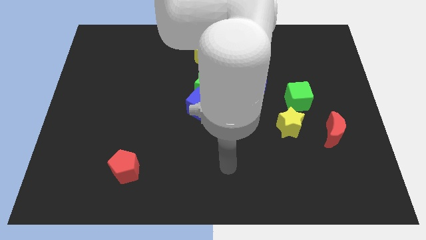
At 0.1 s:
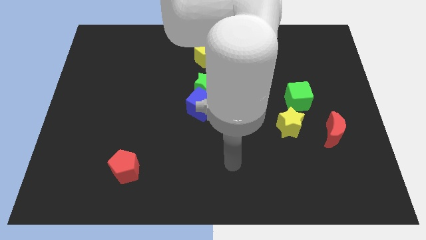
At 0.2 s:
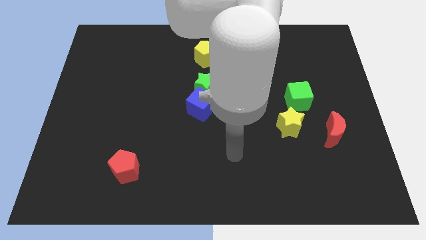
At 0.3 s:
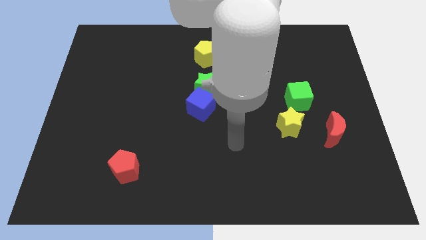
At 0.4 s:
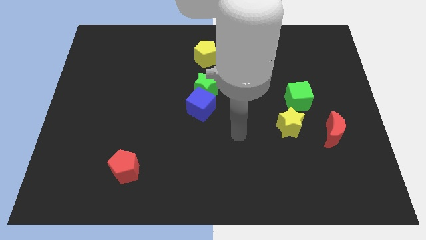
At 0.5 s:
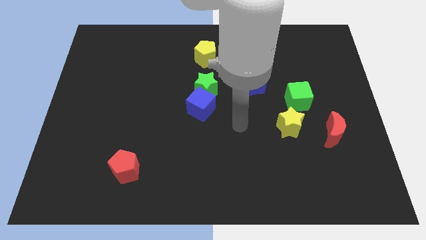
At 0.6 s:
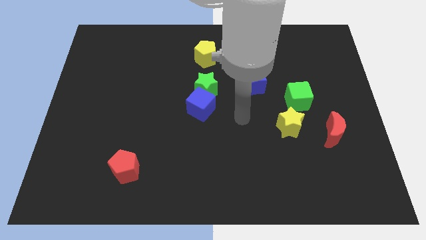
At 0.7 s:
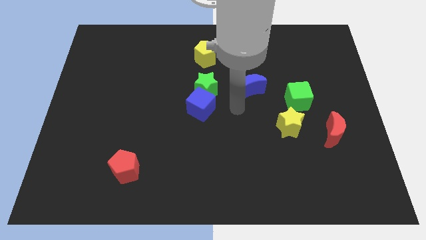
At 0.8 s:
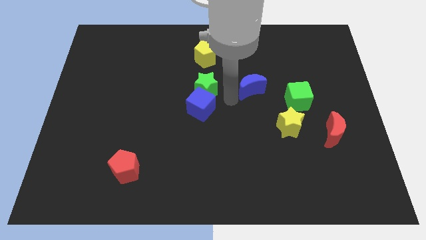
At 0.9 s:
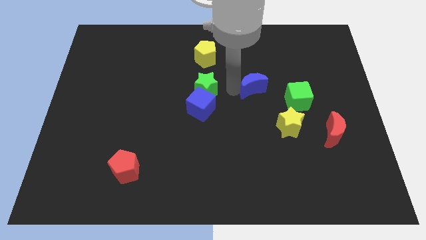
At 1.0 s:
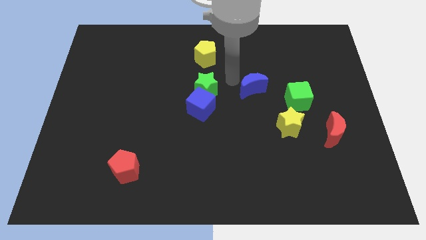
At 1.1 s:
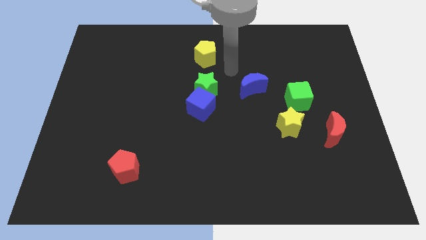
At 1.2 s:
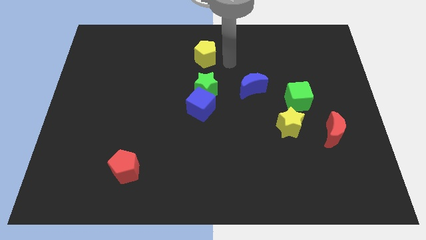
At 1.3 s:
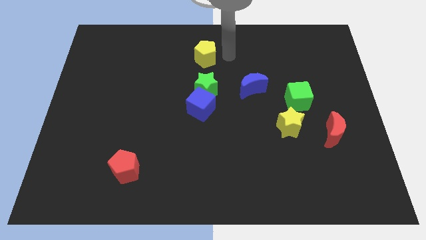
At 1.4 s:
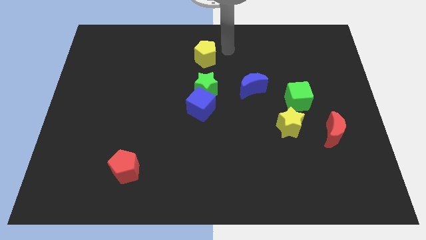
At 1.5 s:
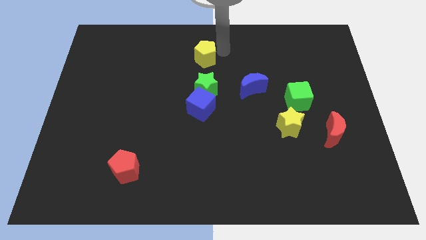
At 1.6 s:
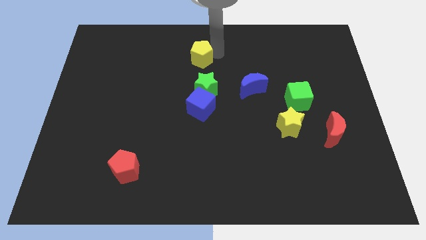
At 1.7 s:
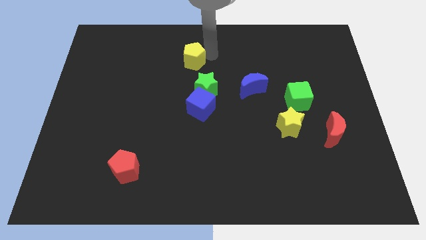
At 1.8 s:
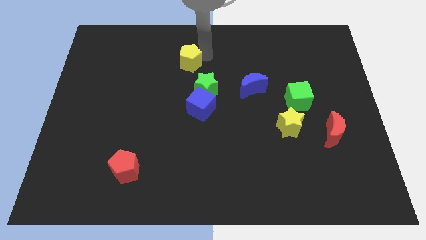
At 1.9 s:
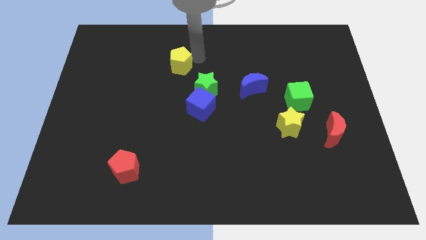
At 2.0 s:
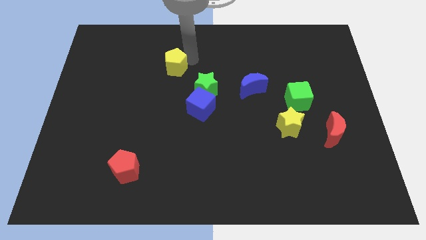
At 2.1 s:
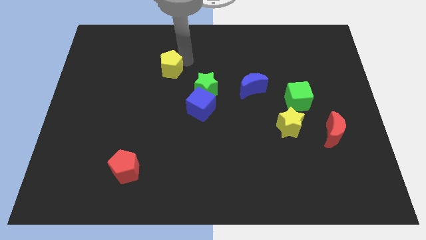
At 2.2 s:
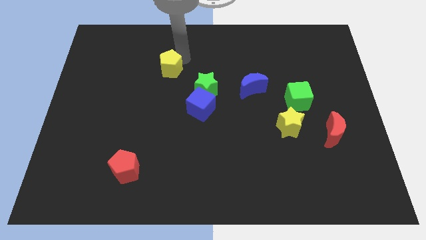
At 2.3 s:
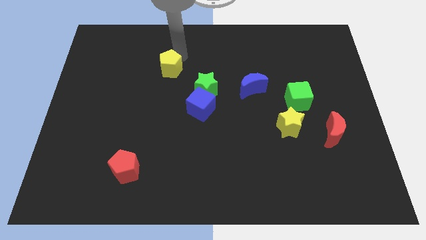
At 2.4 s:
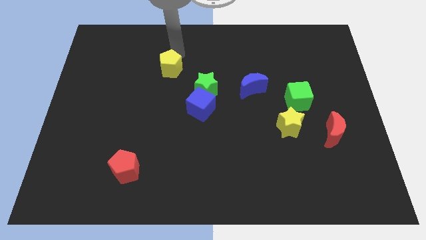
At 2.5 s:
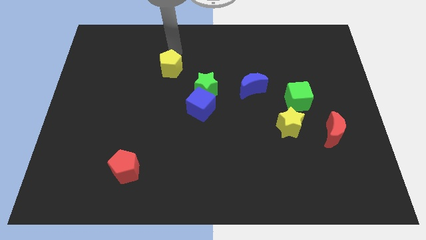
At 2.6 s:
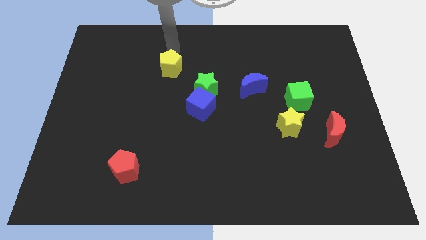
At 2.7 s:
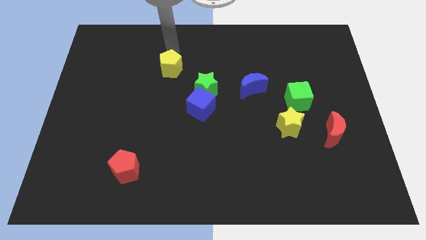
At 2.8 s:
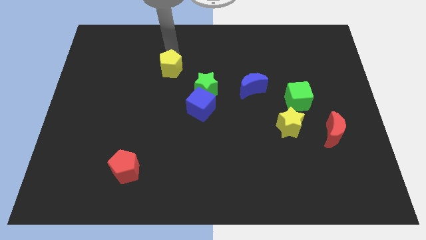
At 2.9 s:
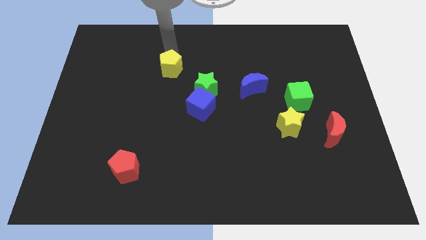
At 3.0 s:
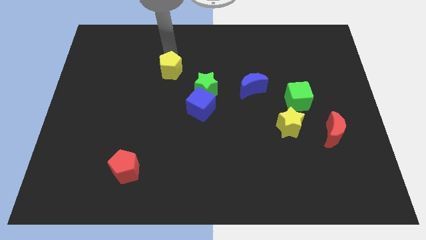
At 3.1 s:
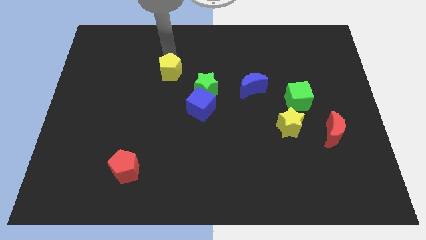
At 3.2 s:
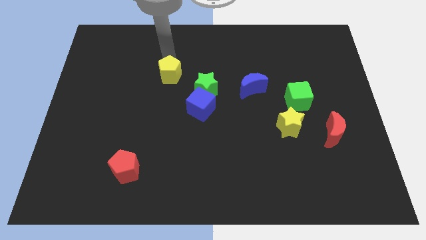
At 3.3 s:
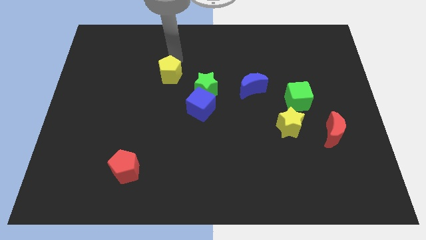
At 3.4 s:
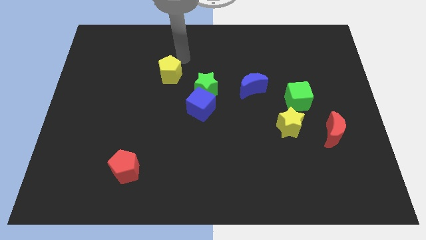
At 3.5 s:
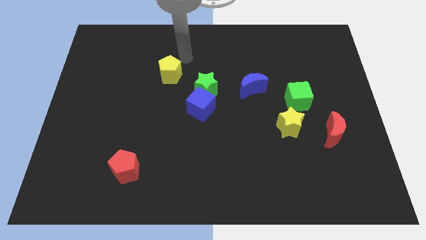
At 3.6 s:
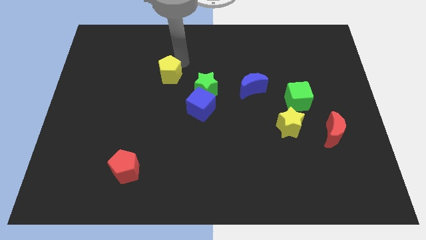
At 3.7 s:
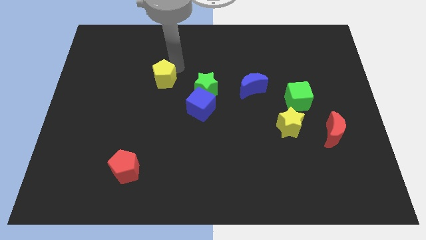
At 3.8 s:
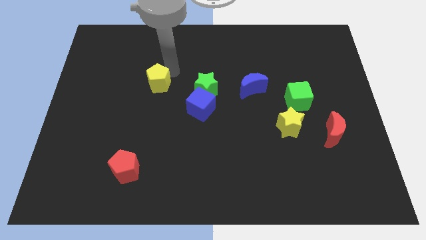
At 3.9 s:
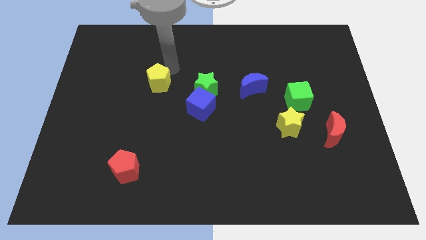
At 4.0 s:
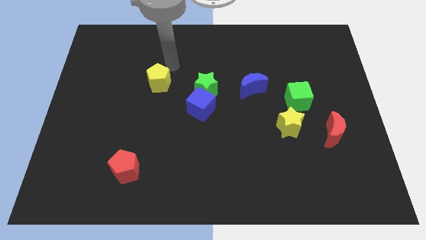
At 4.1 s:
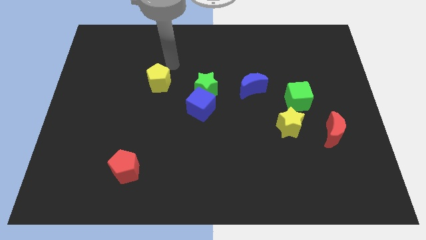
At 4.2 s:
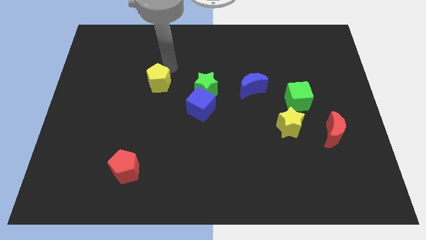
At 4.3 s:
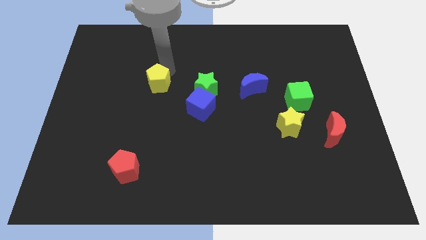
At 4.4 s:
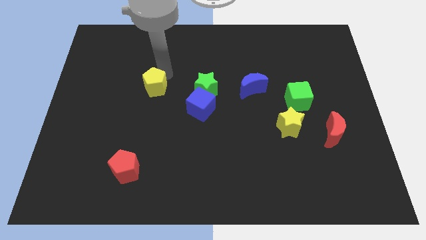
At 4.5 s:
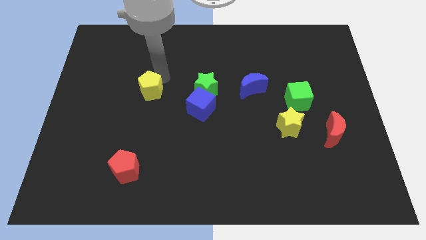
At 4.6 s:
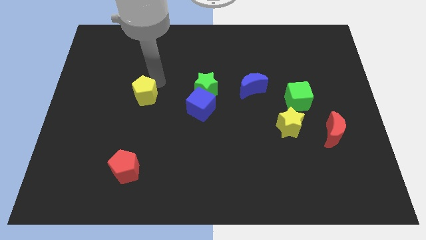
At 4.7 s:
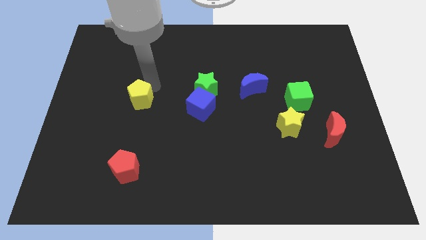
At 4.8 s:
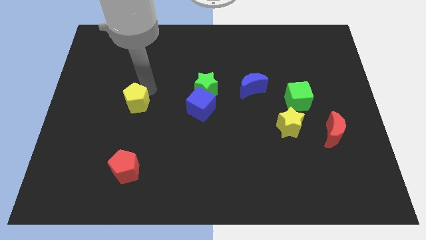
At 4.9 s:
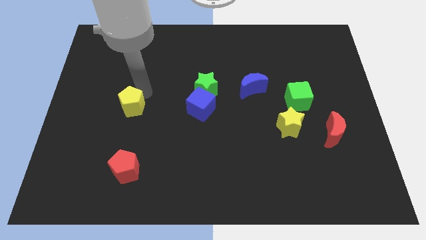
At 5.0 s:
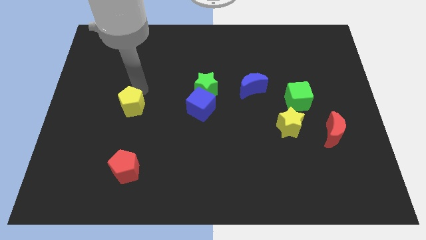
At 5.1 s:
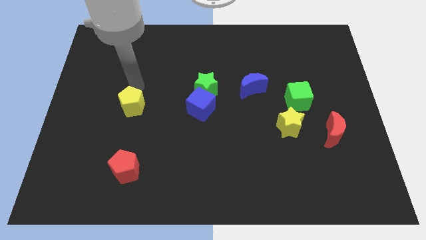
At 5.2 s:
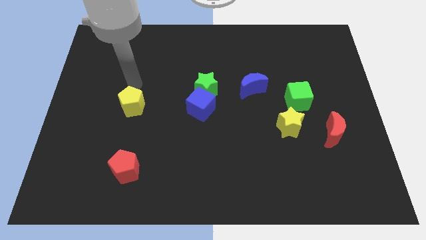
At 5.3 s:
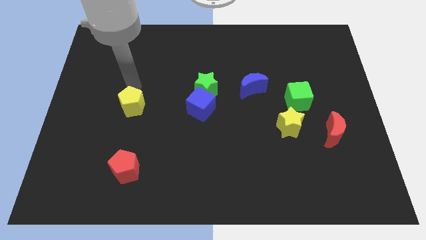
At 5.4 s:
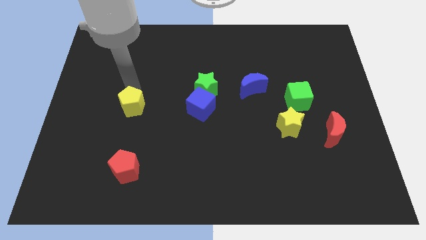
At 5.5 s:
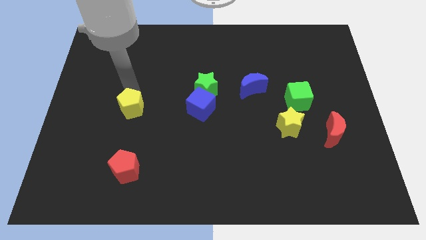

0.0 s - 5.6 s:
slide the yellow pentagon to the top of the red pentagon

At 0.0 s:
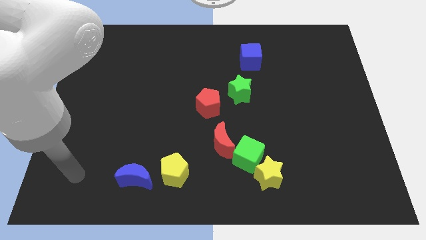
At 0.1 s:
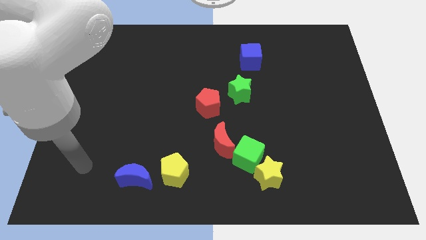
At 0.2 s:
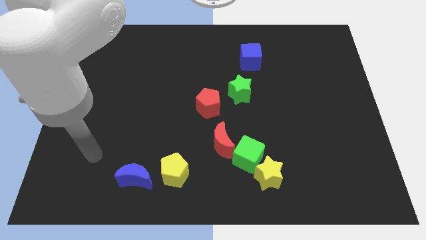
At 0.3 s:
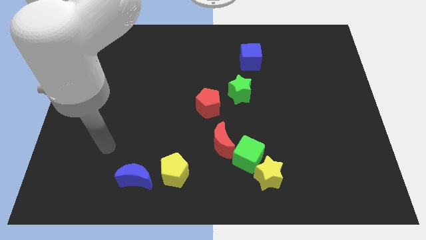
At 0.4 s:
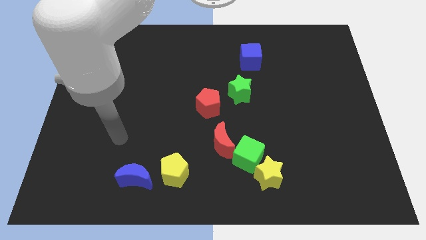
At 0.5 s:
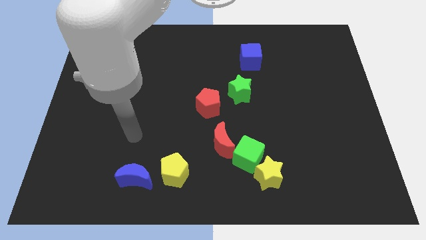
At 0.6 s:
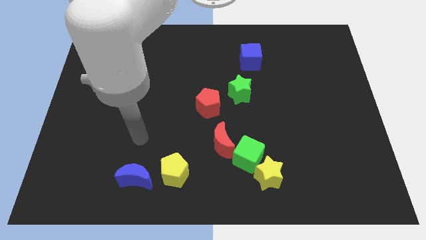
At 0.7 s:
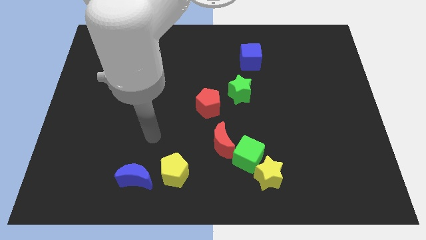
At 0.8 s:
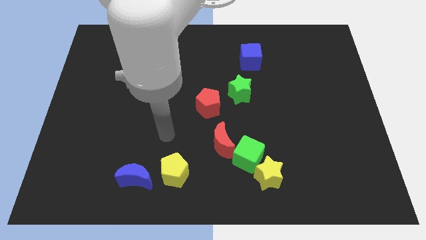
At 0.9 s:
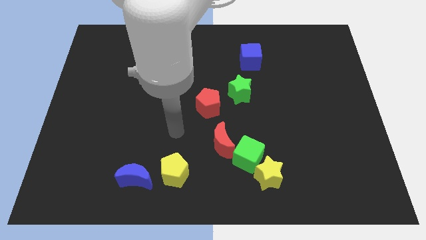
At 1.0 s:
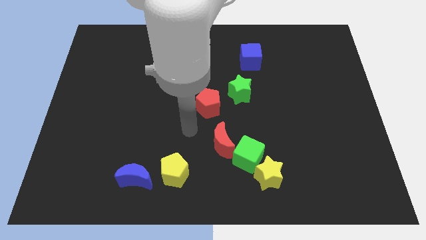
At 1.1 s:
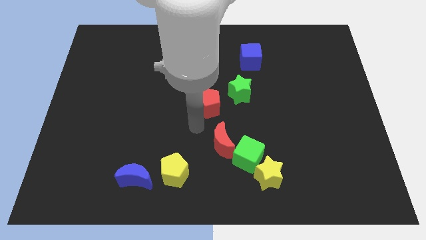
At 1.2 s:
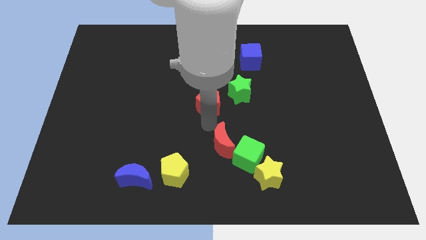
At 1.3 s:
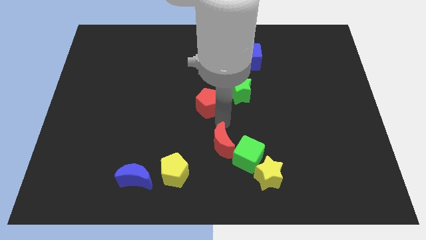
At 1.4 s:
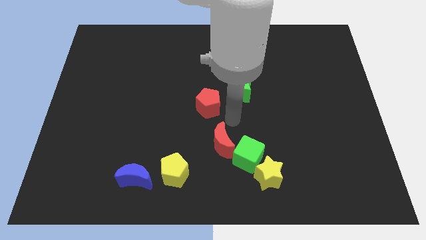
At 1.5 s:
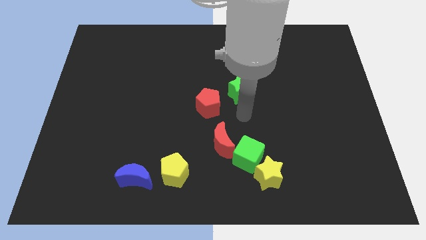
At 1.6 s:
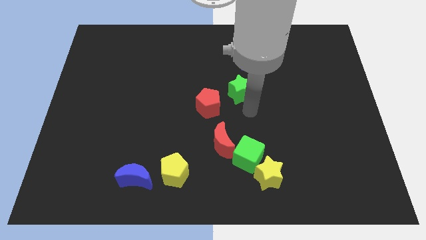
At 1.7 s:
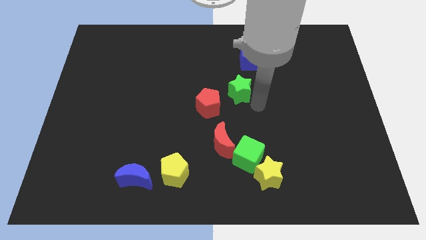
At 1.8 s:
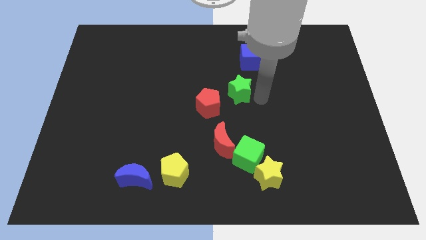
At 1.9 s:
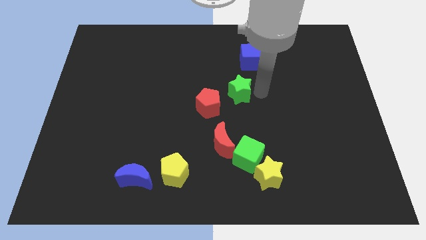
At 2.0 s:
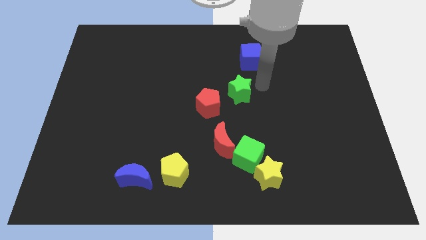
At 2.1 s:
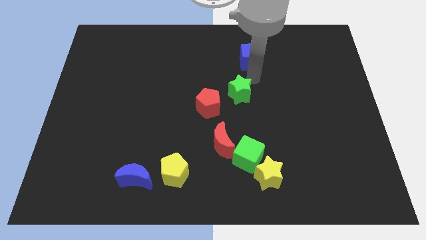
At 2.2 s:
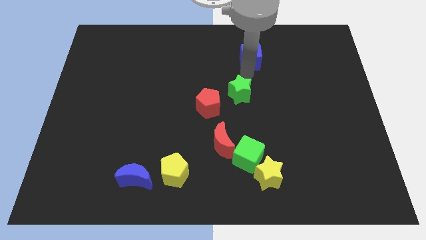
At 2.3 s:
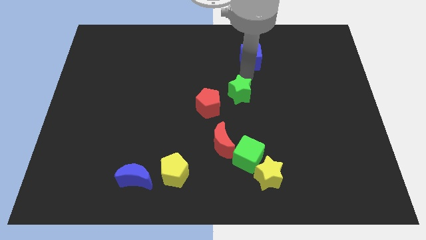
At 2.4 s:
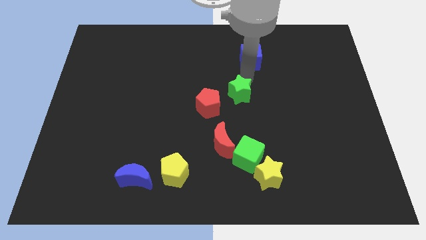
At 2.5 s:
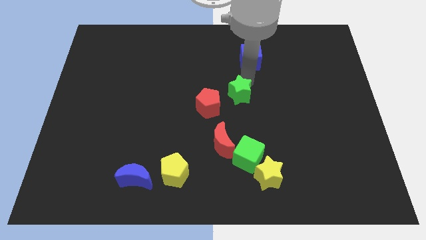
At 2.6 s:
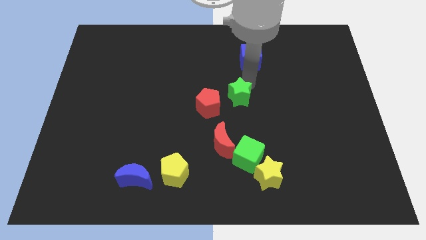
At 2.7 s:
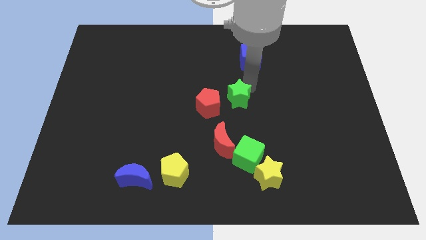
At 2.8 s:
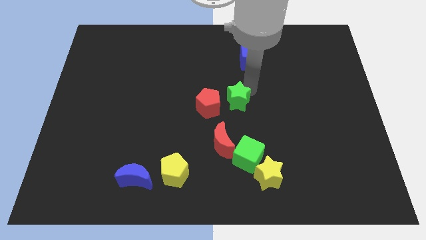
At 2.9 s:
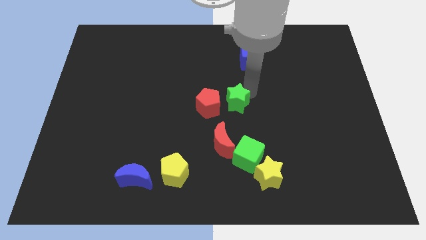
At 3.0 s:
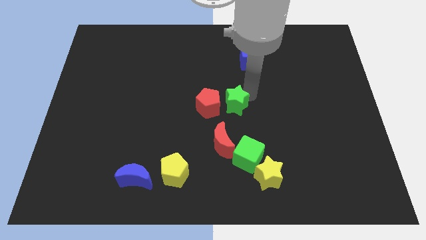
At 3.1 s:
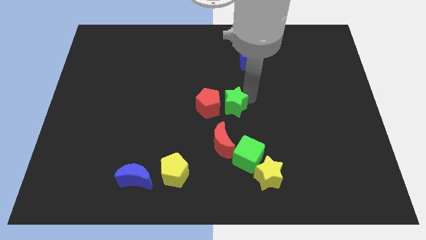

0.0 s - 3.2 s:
push the green star diagonally down and to the right of the red pentagon
